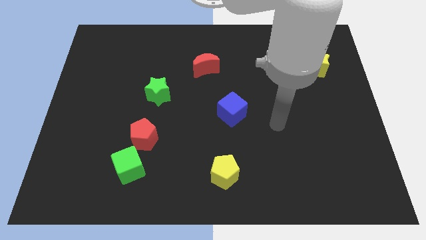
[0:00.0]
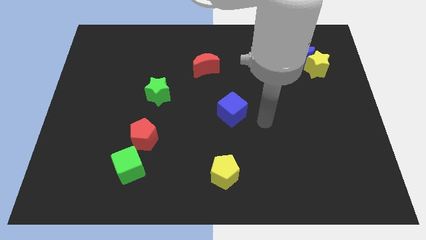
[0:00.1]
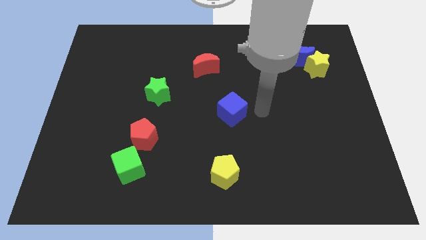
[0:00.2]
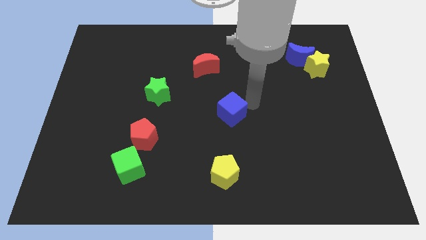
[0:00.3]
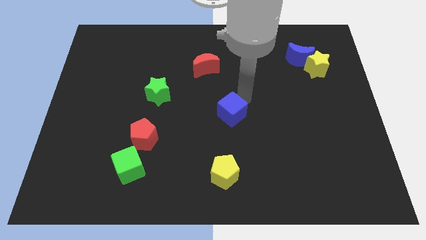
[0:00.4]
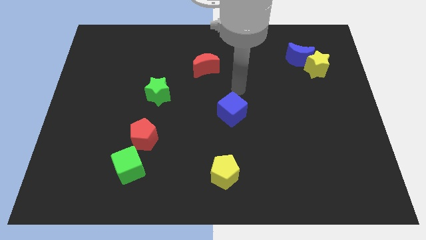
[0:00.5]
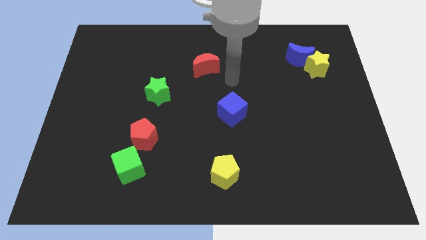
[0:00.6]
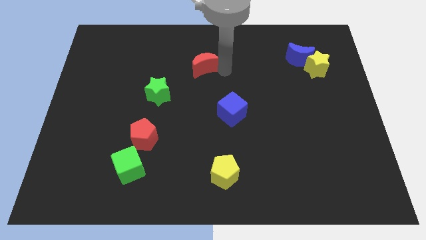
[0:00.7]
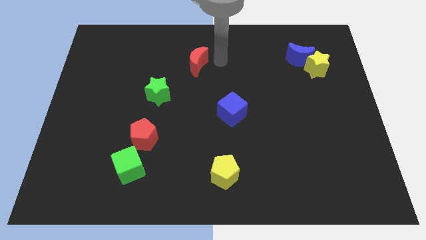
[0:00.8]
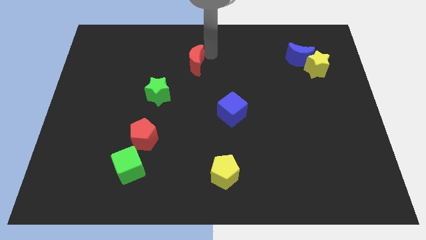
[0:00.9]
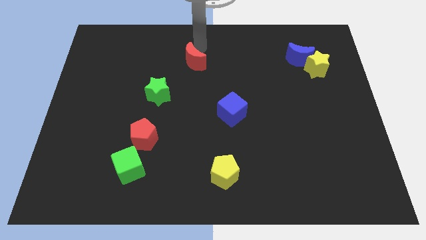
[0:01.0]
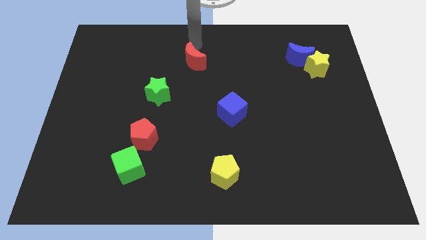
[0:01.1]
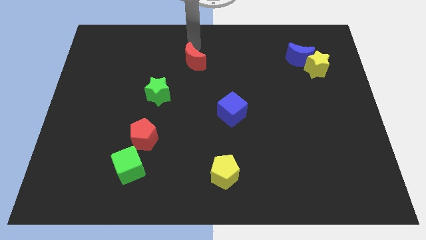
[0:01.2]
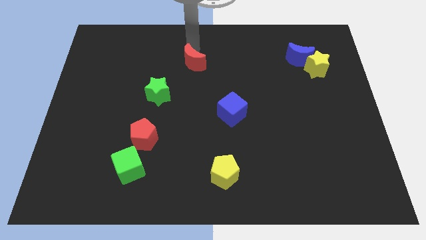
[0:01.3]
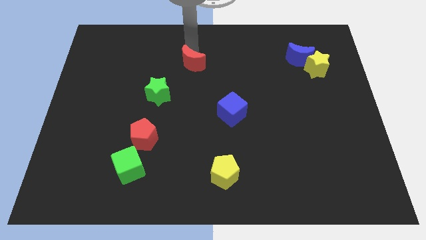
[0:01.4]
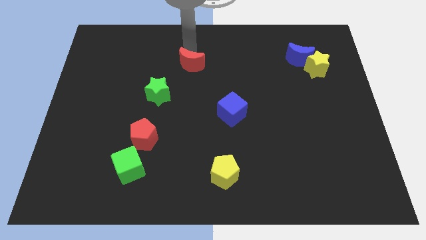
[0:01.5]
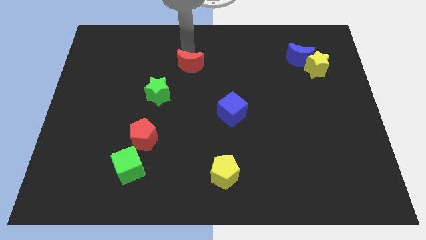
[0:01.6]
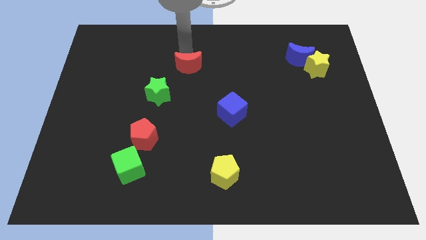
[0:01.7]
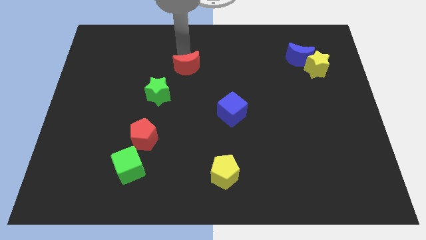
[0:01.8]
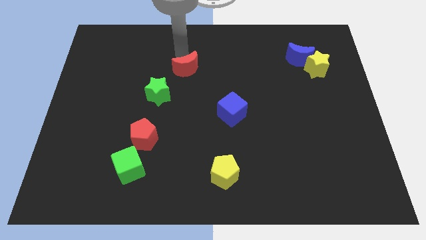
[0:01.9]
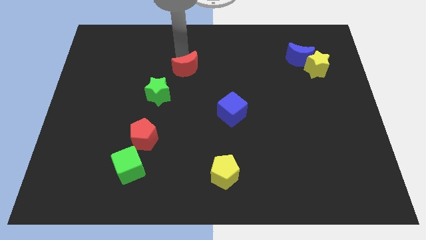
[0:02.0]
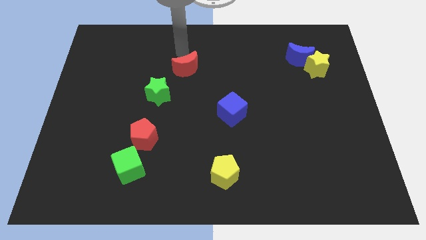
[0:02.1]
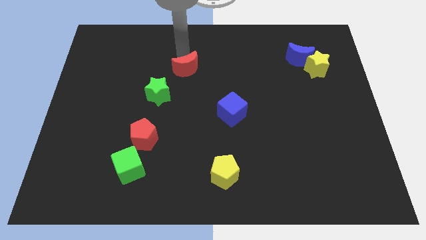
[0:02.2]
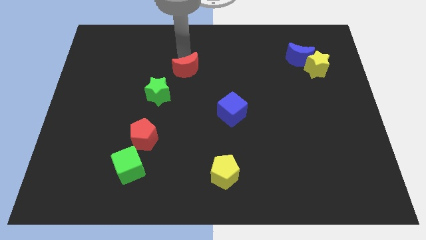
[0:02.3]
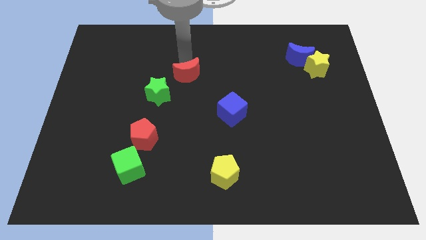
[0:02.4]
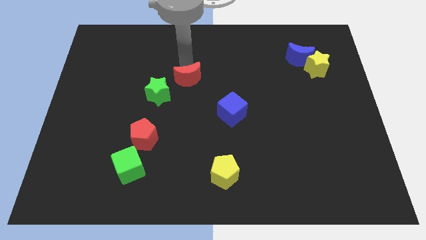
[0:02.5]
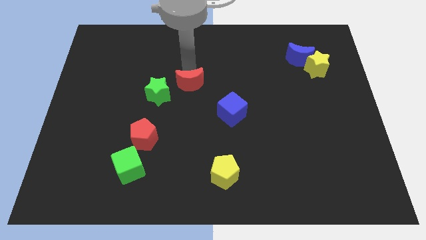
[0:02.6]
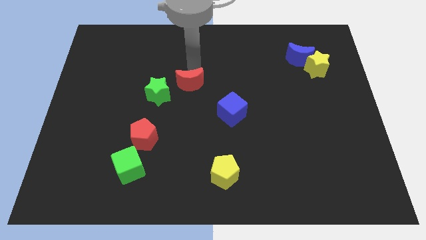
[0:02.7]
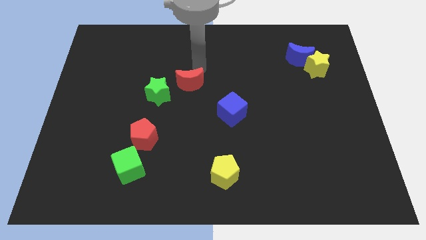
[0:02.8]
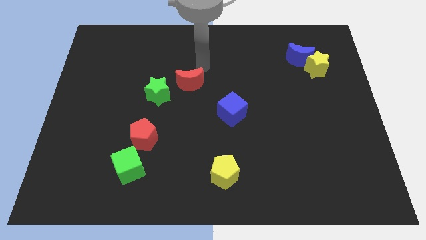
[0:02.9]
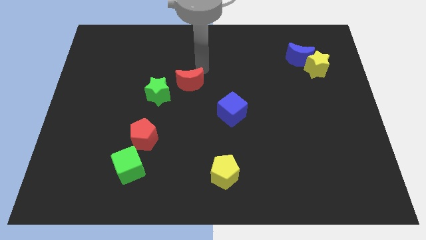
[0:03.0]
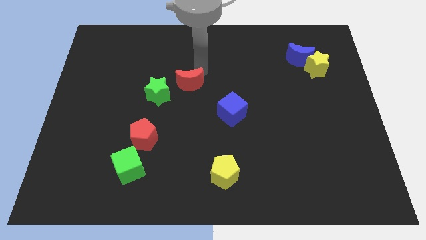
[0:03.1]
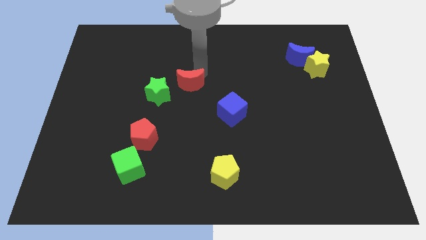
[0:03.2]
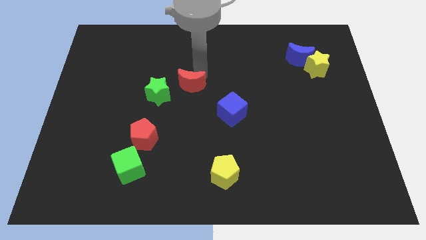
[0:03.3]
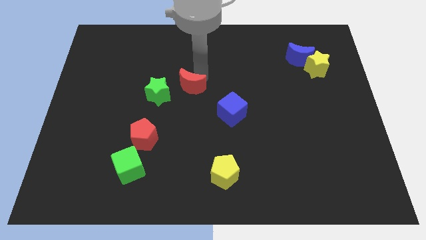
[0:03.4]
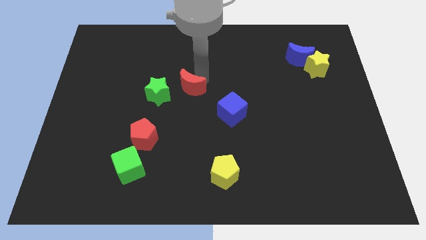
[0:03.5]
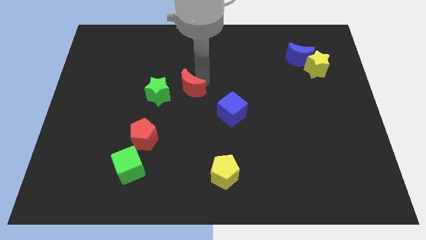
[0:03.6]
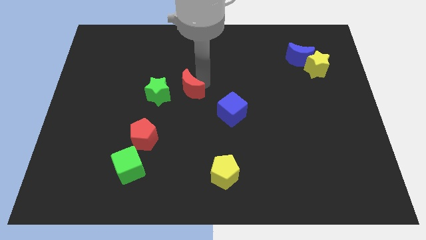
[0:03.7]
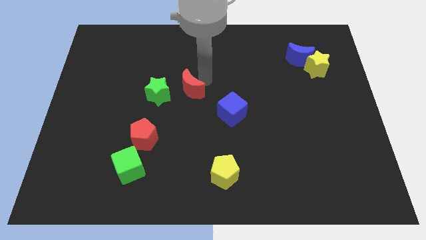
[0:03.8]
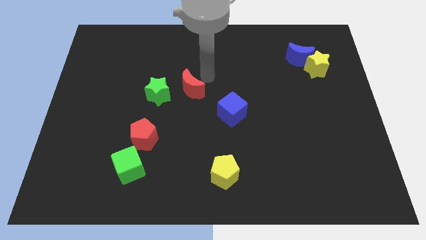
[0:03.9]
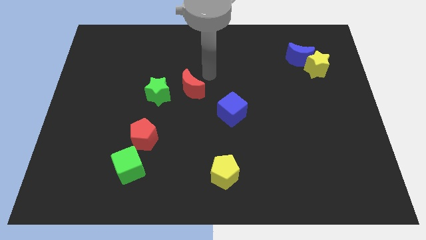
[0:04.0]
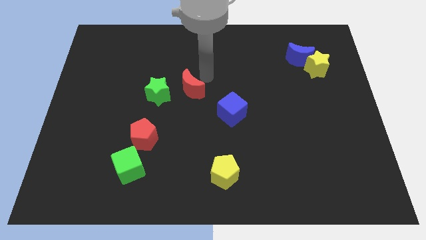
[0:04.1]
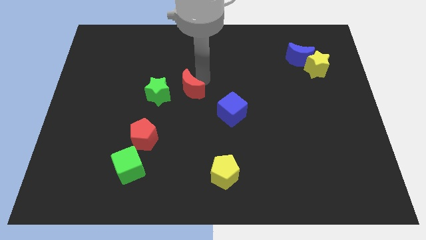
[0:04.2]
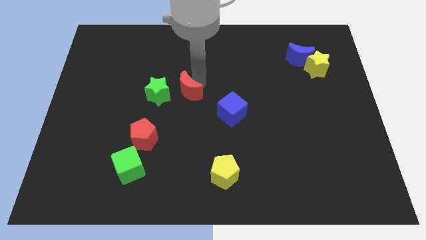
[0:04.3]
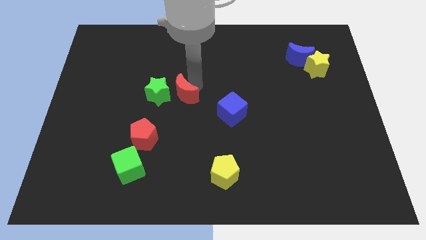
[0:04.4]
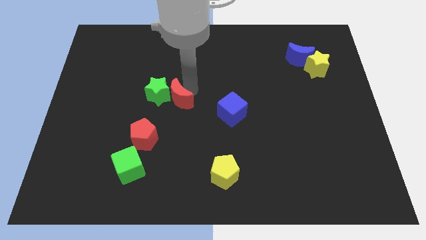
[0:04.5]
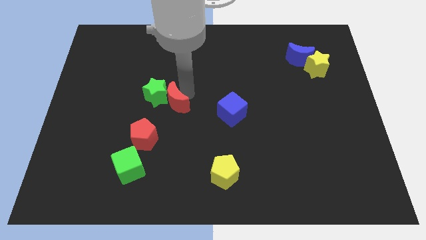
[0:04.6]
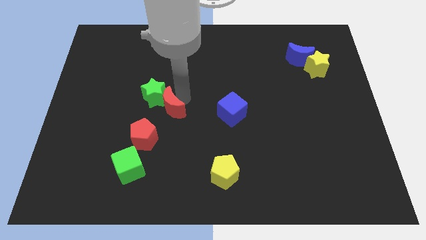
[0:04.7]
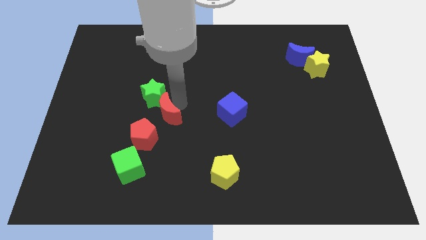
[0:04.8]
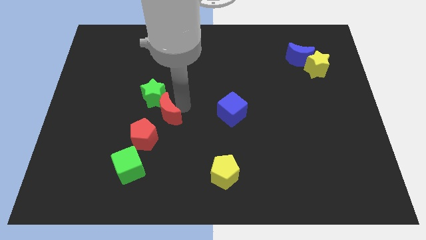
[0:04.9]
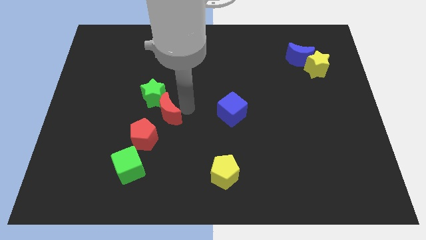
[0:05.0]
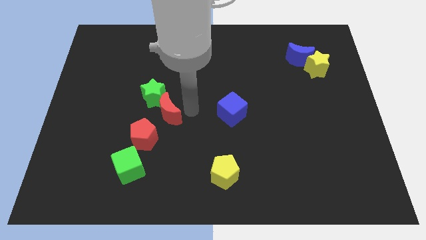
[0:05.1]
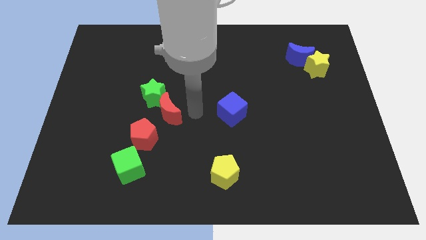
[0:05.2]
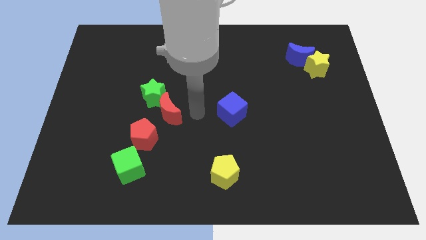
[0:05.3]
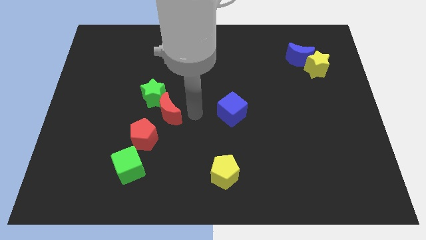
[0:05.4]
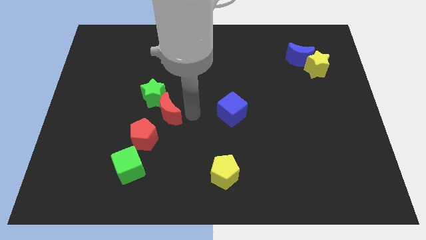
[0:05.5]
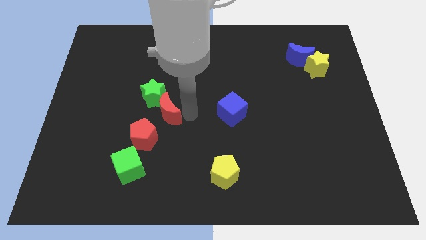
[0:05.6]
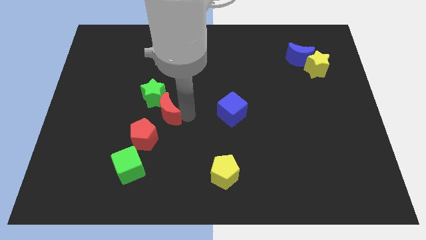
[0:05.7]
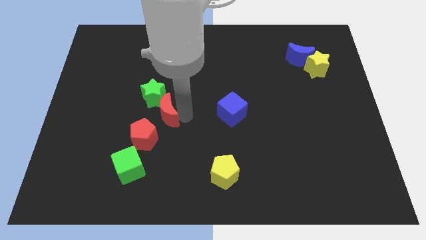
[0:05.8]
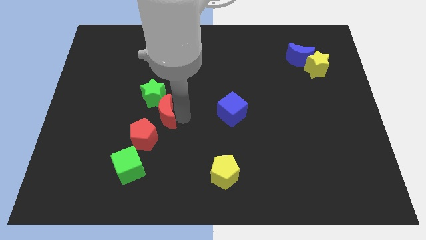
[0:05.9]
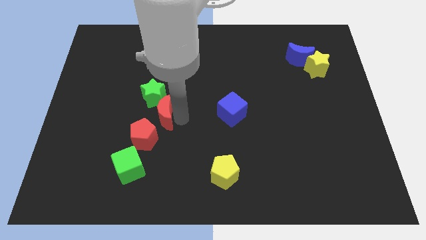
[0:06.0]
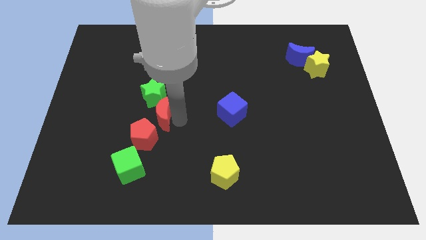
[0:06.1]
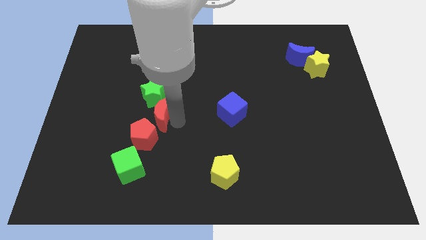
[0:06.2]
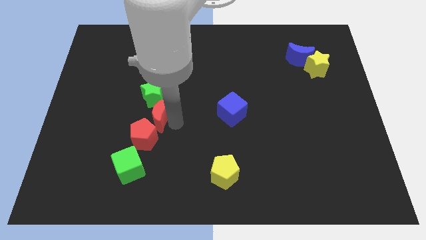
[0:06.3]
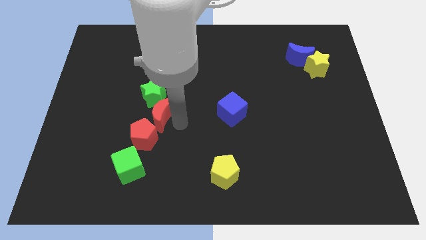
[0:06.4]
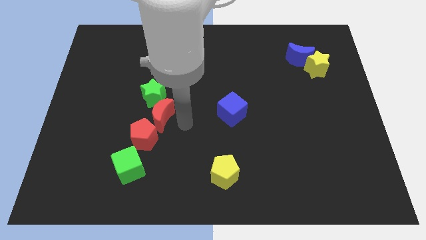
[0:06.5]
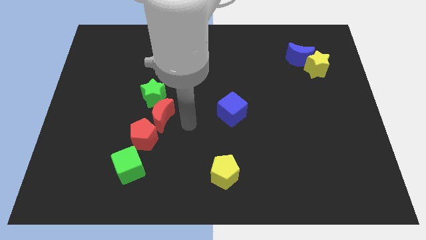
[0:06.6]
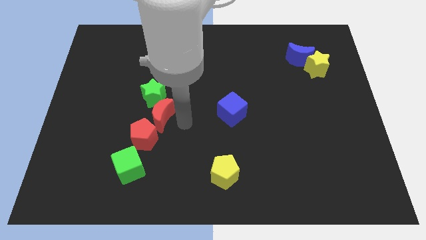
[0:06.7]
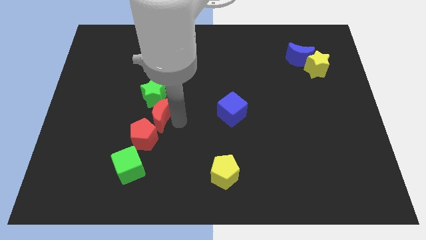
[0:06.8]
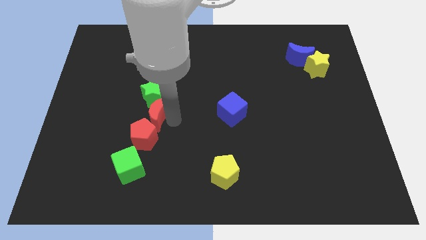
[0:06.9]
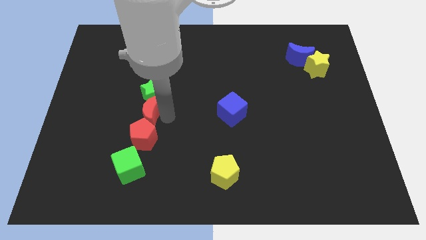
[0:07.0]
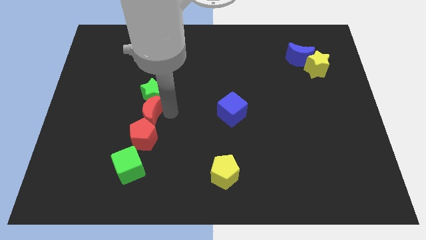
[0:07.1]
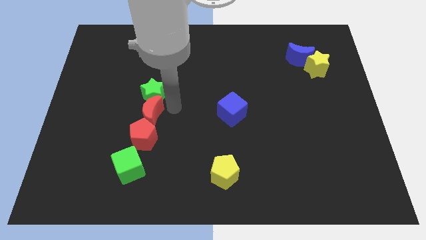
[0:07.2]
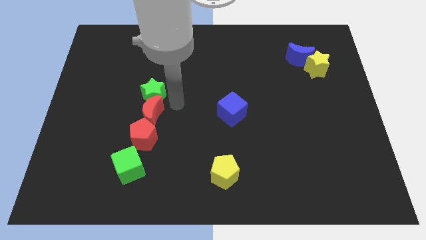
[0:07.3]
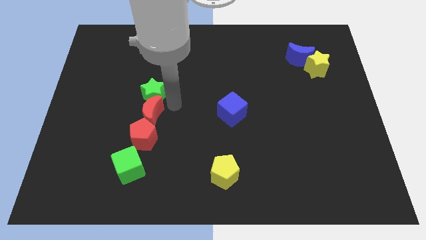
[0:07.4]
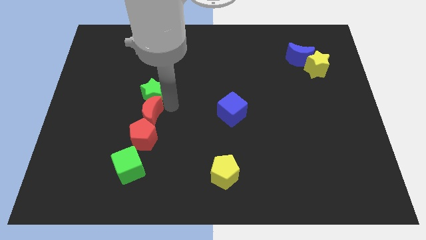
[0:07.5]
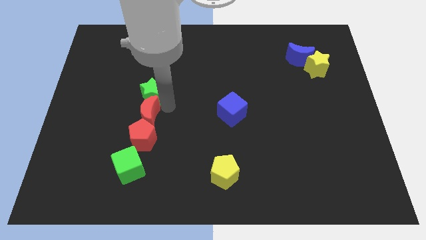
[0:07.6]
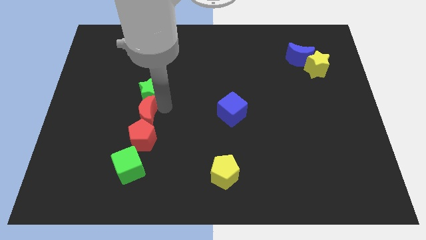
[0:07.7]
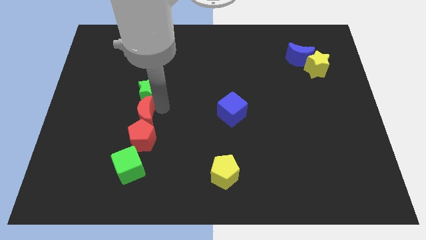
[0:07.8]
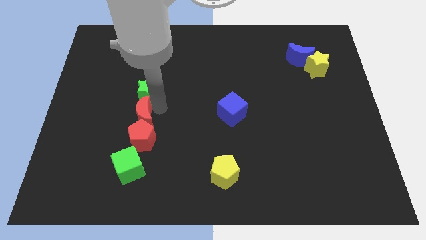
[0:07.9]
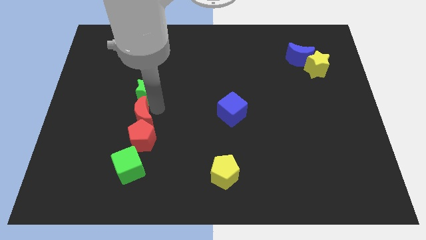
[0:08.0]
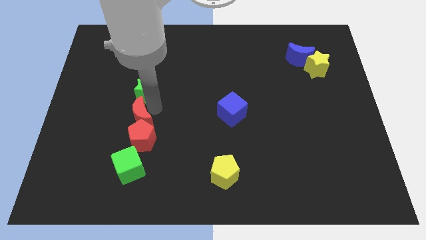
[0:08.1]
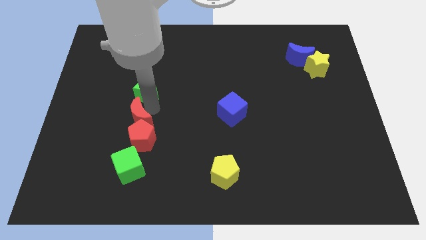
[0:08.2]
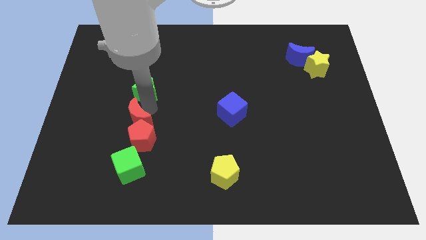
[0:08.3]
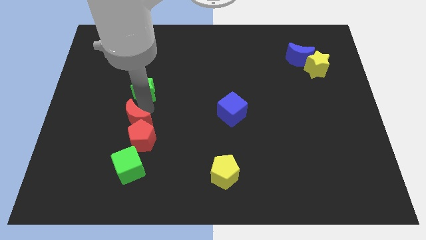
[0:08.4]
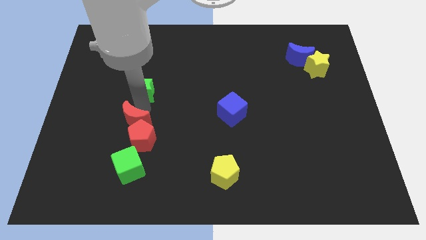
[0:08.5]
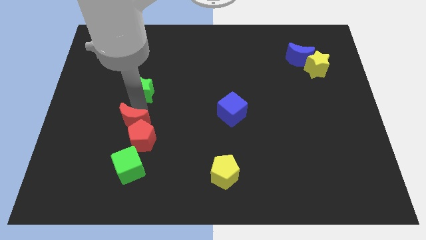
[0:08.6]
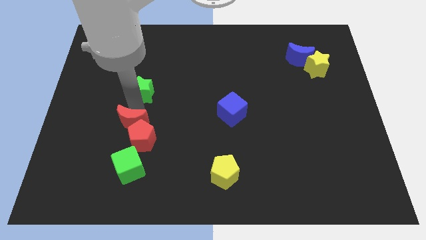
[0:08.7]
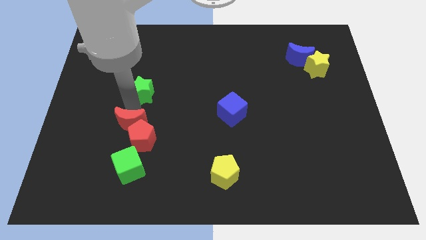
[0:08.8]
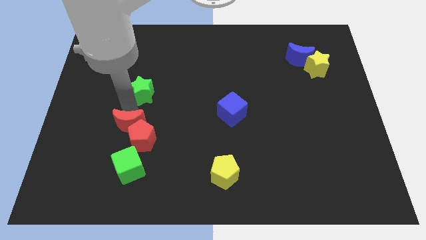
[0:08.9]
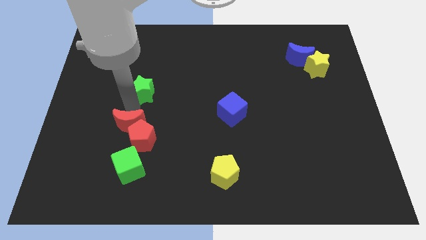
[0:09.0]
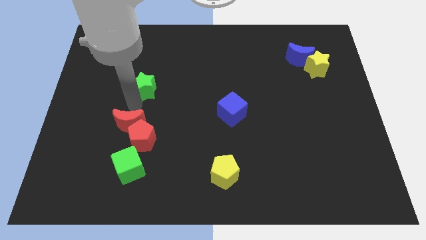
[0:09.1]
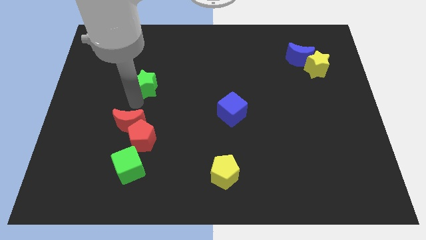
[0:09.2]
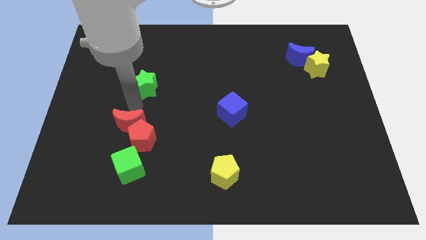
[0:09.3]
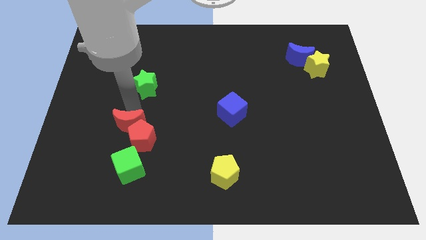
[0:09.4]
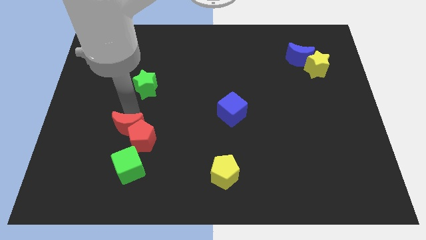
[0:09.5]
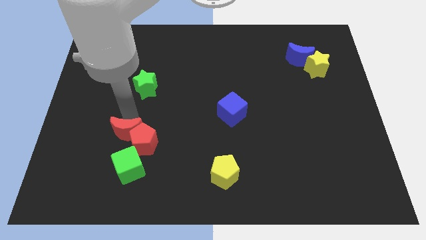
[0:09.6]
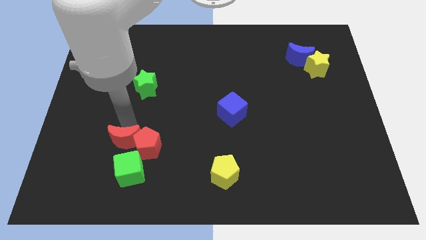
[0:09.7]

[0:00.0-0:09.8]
move the red moon to the bottom left of the red pentagon
